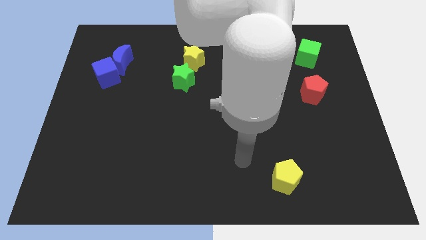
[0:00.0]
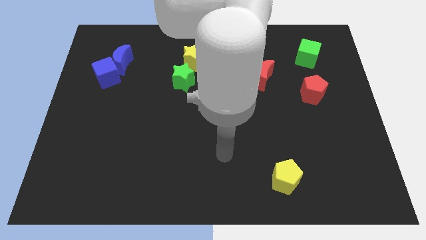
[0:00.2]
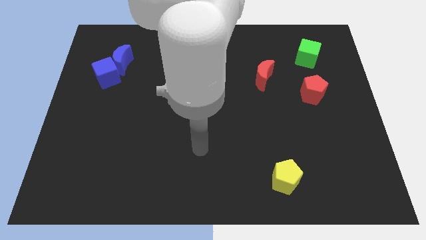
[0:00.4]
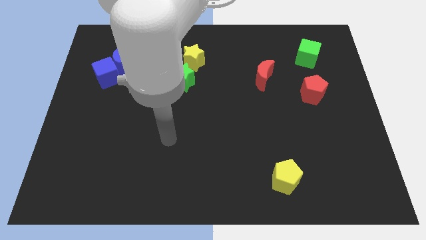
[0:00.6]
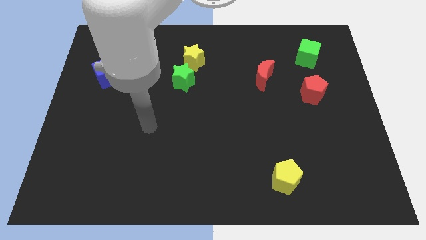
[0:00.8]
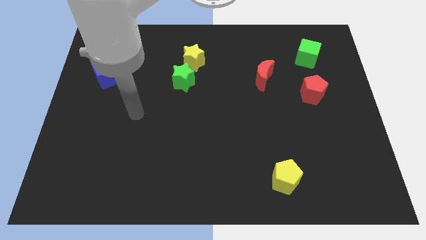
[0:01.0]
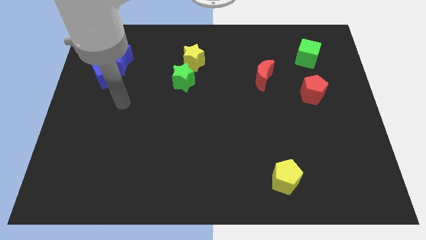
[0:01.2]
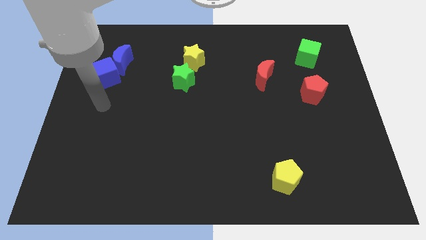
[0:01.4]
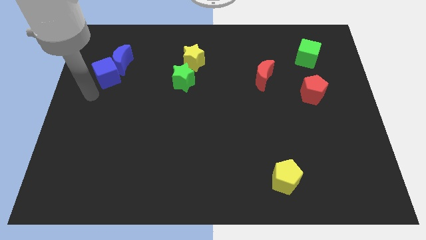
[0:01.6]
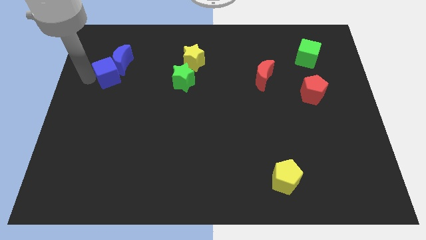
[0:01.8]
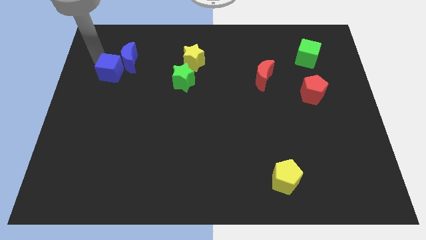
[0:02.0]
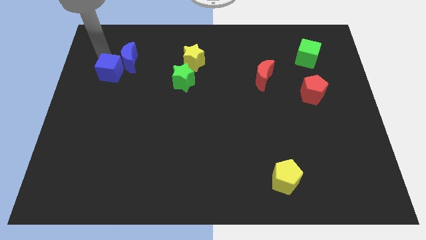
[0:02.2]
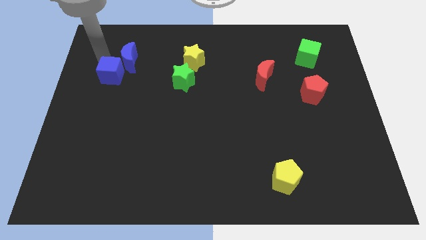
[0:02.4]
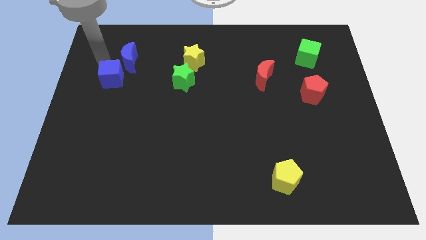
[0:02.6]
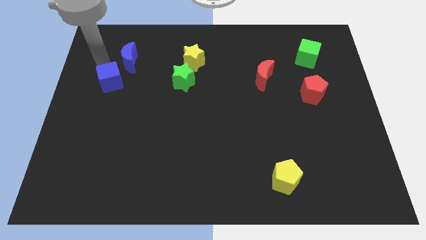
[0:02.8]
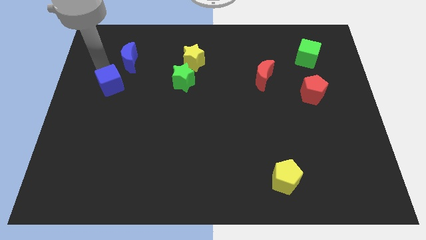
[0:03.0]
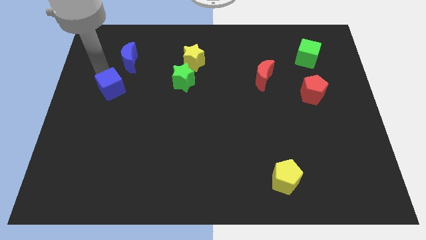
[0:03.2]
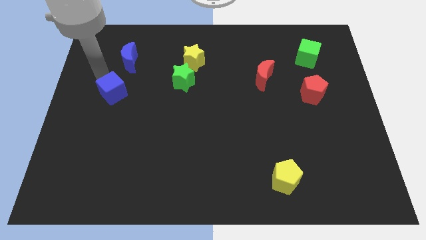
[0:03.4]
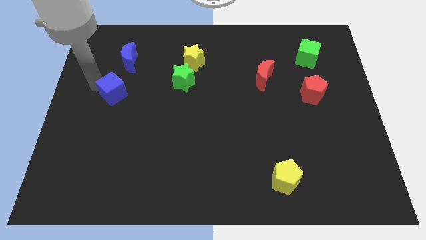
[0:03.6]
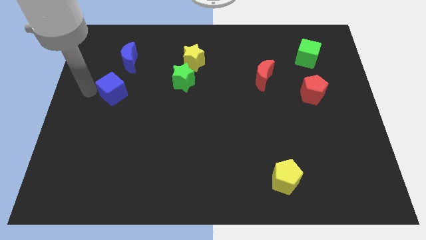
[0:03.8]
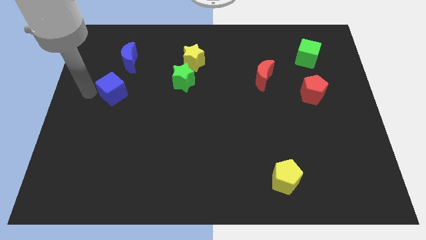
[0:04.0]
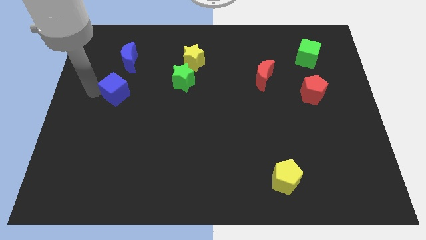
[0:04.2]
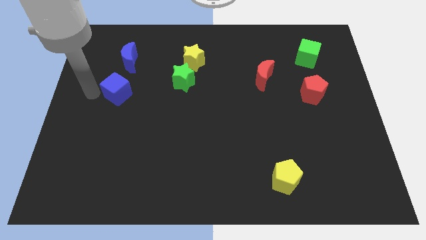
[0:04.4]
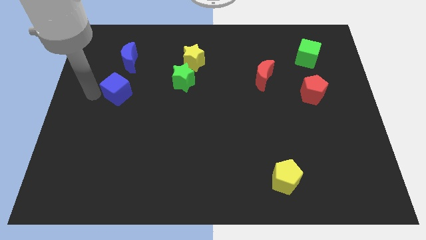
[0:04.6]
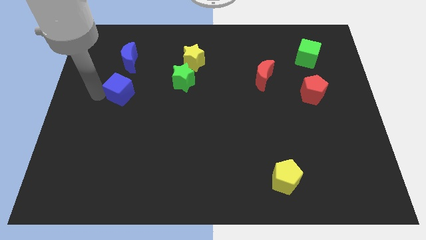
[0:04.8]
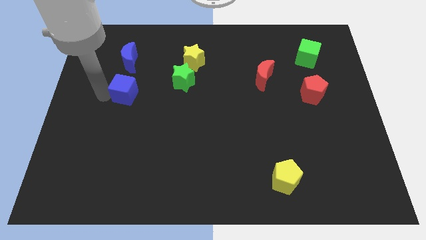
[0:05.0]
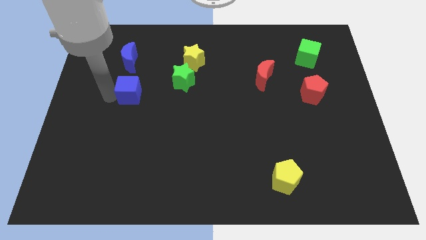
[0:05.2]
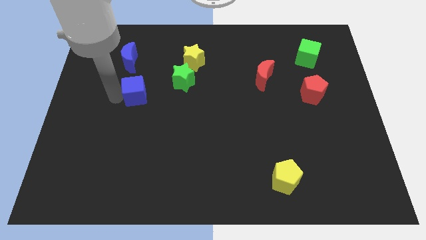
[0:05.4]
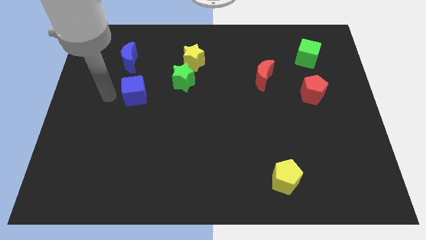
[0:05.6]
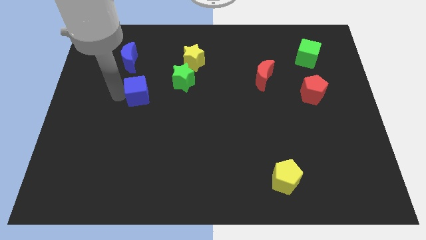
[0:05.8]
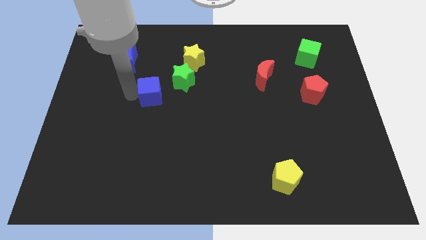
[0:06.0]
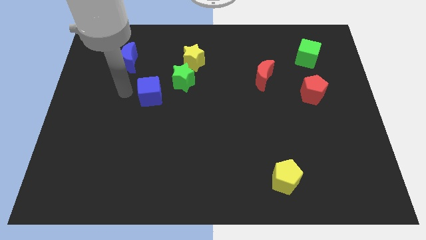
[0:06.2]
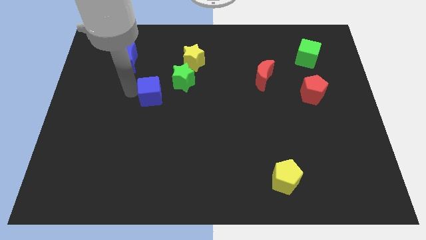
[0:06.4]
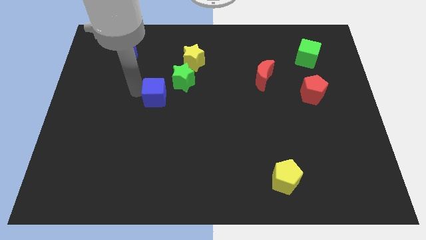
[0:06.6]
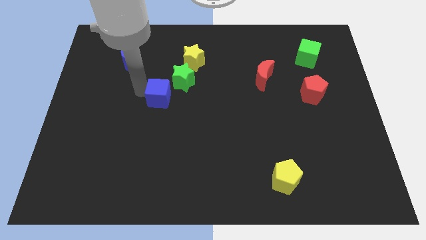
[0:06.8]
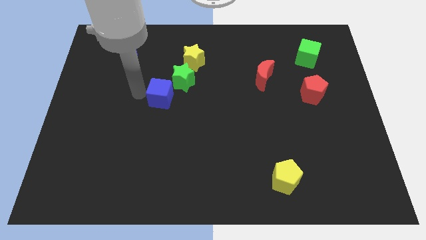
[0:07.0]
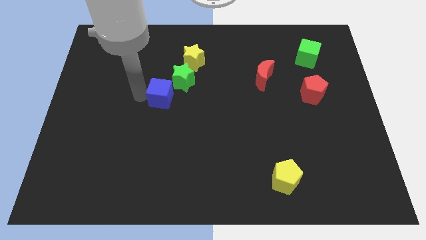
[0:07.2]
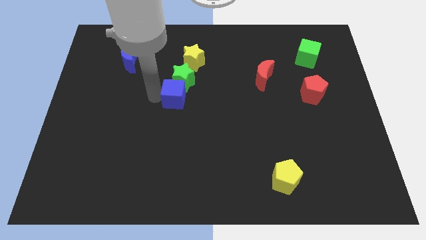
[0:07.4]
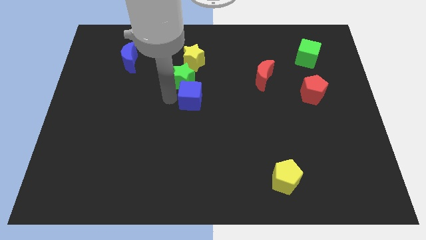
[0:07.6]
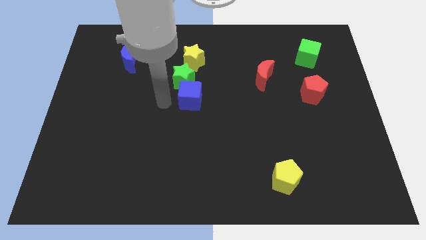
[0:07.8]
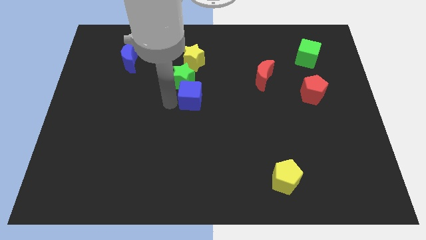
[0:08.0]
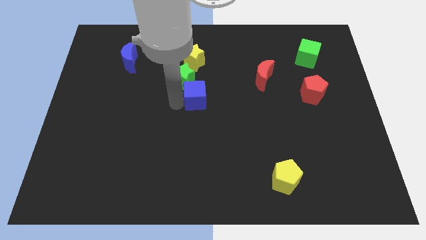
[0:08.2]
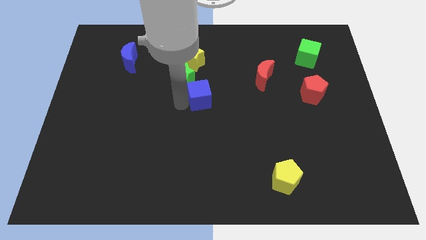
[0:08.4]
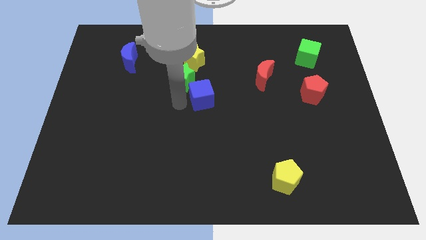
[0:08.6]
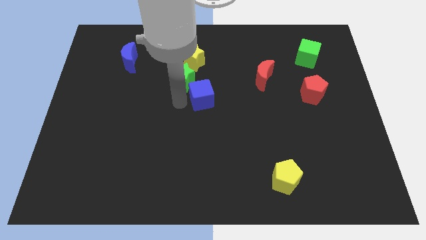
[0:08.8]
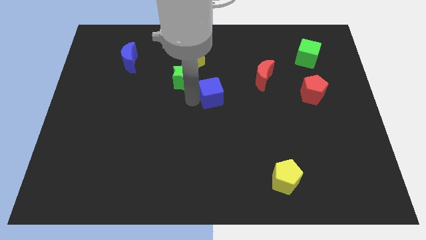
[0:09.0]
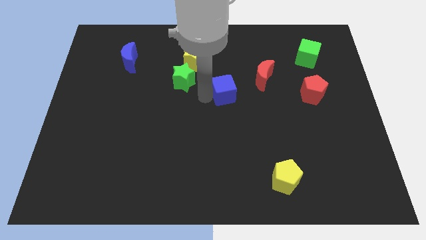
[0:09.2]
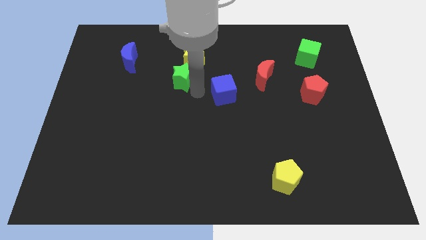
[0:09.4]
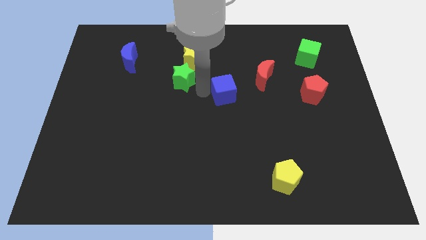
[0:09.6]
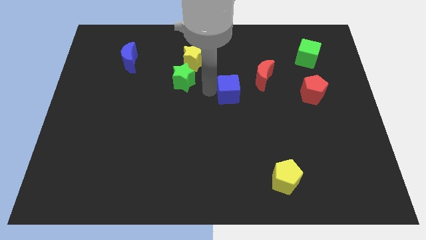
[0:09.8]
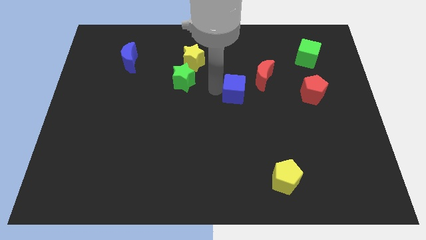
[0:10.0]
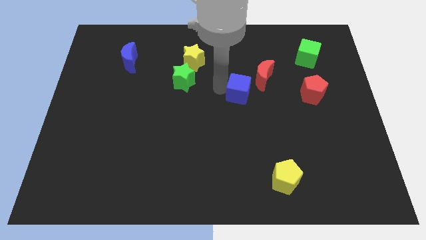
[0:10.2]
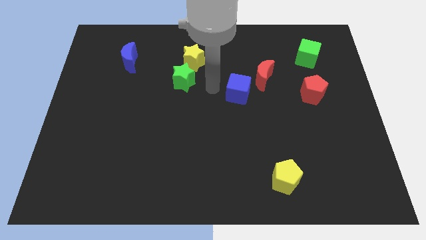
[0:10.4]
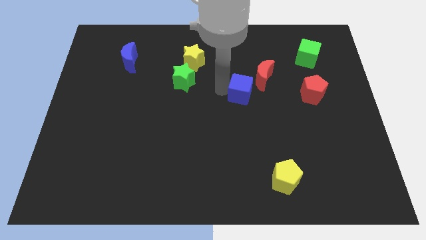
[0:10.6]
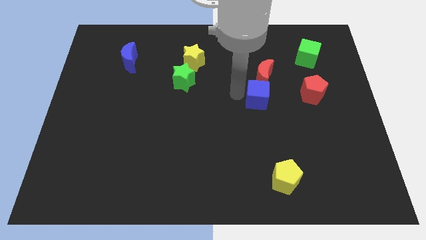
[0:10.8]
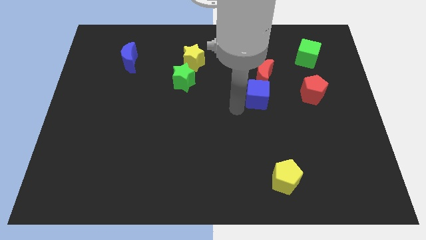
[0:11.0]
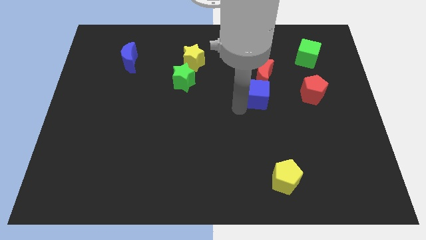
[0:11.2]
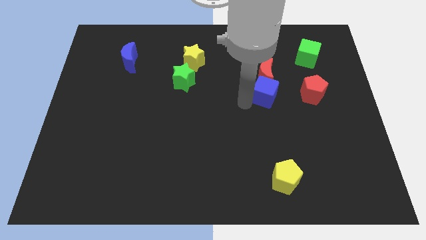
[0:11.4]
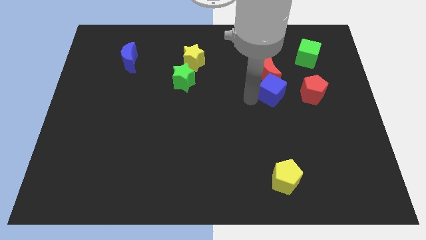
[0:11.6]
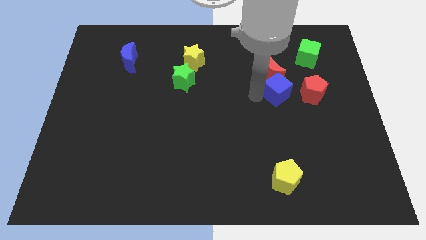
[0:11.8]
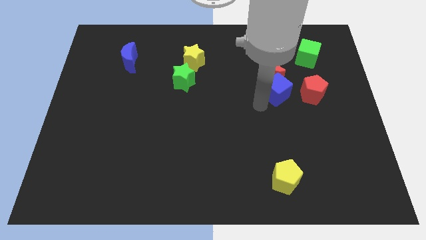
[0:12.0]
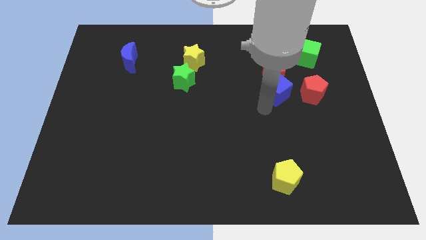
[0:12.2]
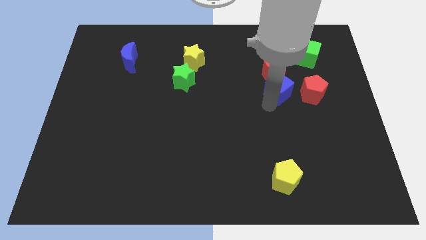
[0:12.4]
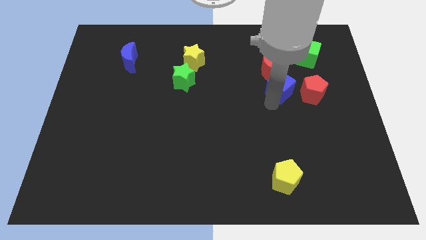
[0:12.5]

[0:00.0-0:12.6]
put the blue cube diagonally up and to the left of the red pentagon
